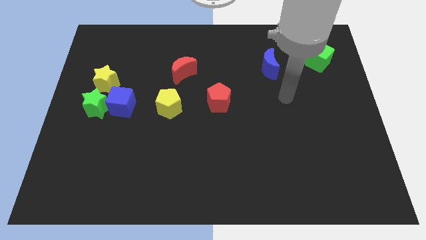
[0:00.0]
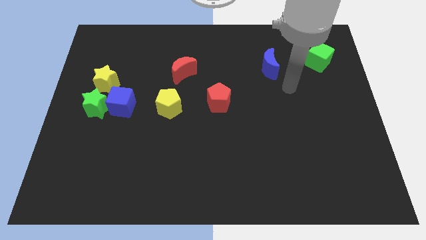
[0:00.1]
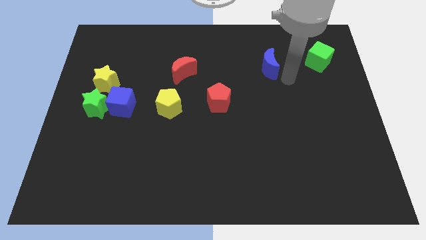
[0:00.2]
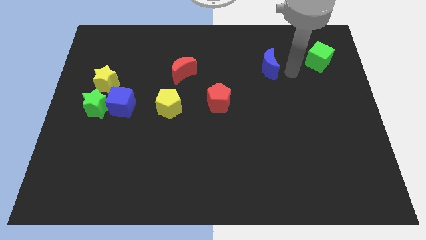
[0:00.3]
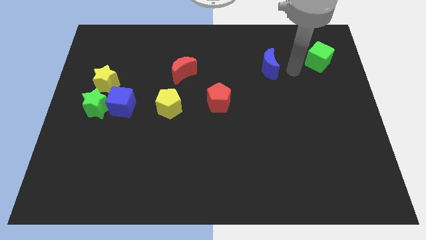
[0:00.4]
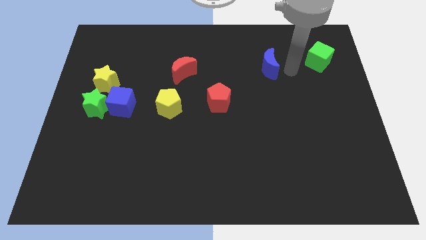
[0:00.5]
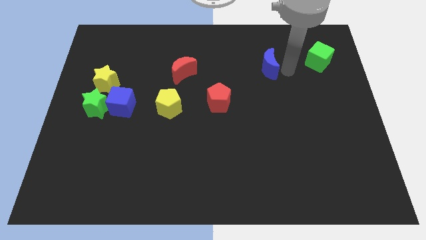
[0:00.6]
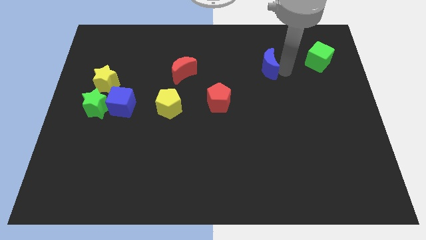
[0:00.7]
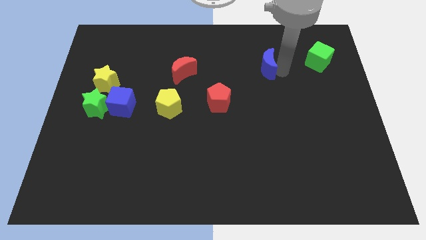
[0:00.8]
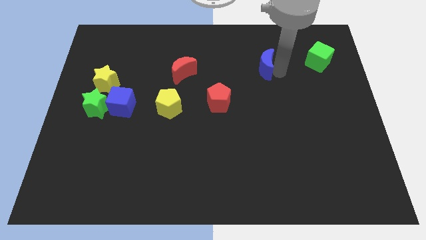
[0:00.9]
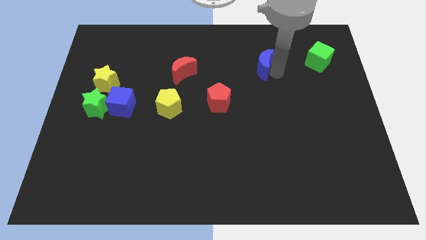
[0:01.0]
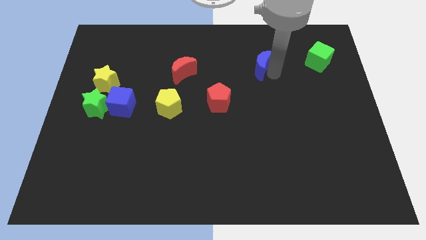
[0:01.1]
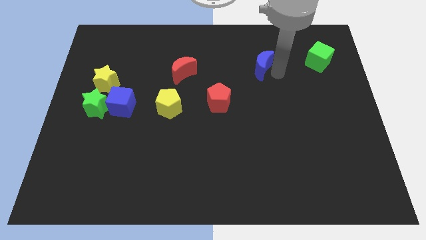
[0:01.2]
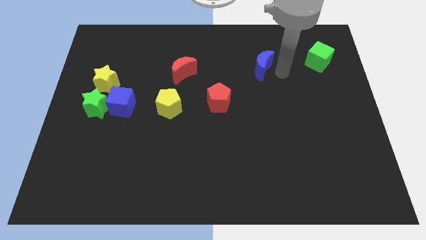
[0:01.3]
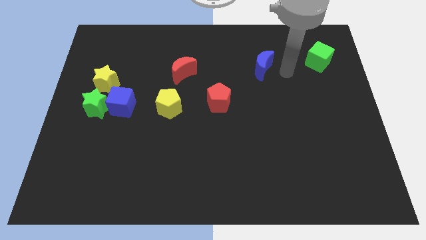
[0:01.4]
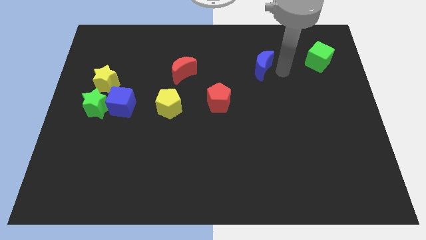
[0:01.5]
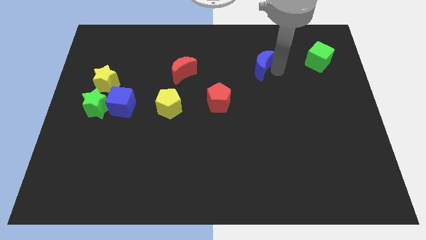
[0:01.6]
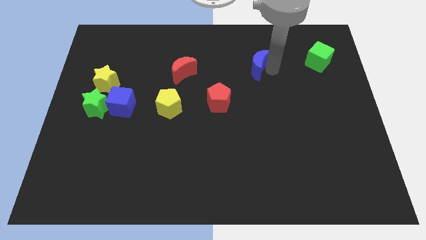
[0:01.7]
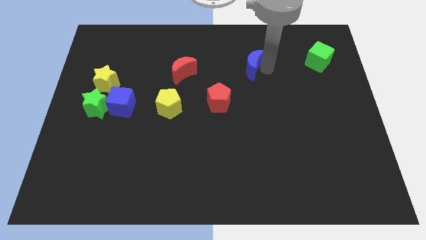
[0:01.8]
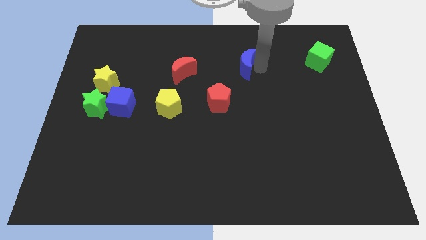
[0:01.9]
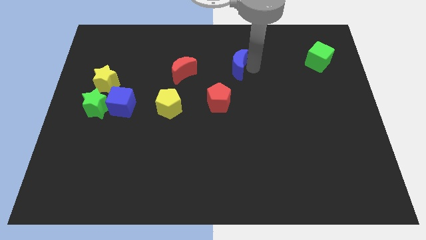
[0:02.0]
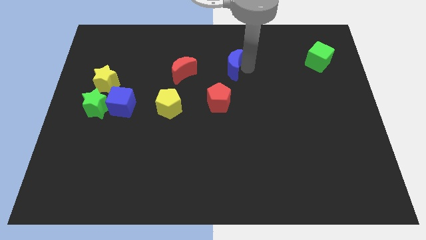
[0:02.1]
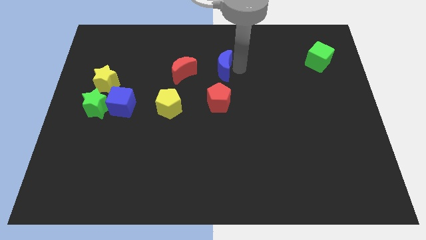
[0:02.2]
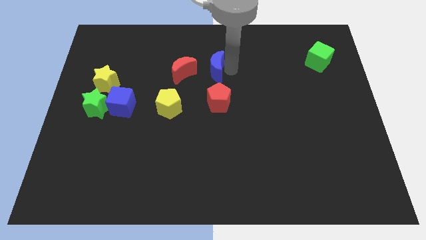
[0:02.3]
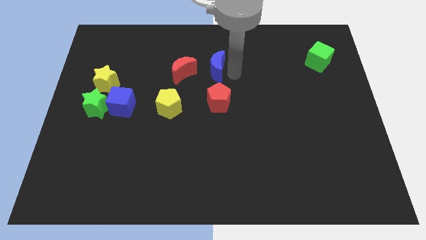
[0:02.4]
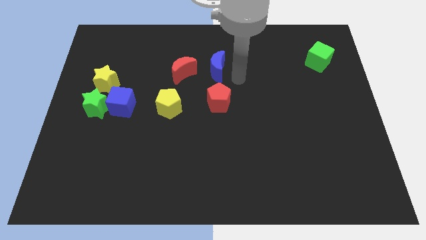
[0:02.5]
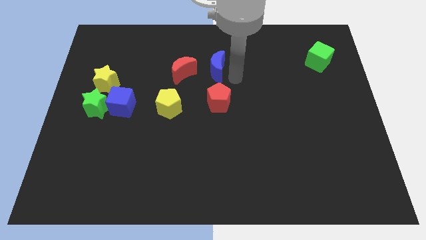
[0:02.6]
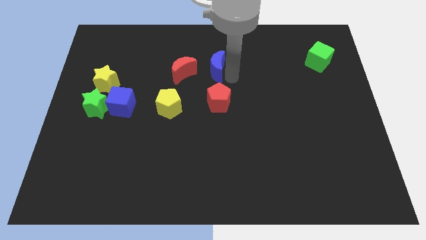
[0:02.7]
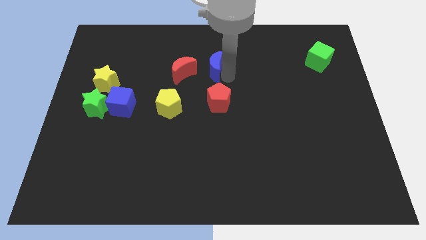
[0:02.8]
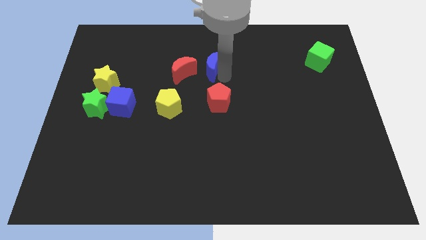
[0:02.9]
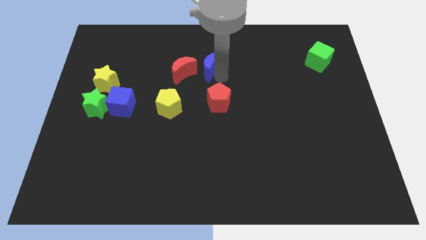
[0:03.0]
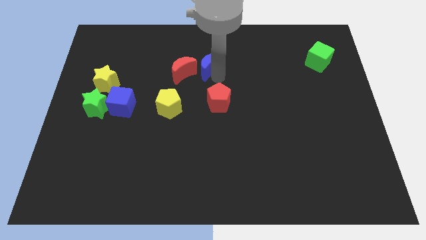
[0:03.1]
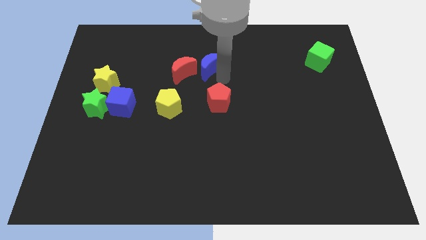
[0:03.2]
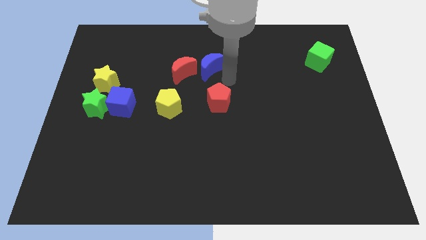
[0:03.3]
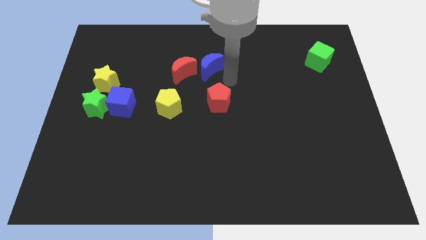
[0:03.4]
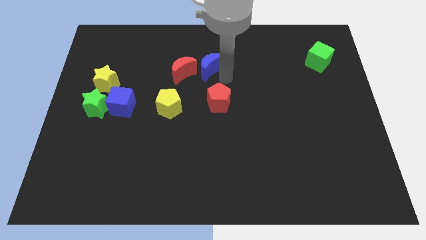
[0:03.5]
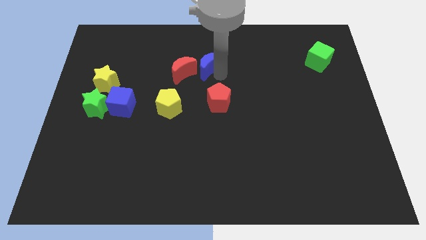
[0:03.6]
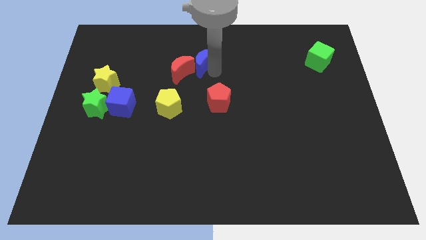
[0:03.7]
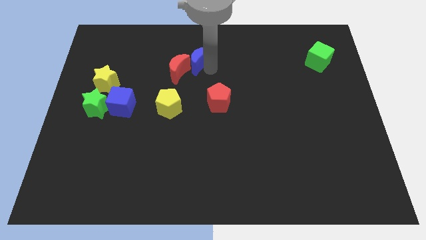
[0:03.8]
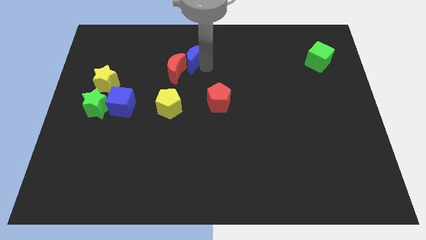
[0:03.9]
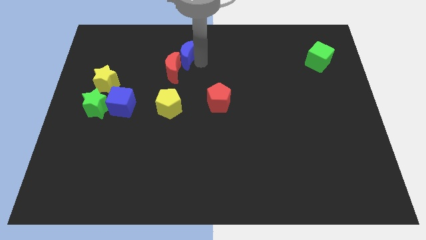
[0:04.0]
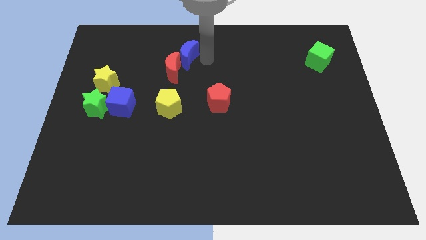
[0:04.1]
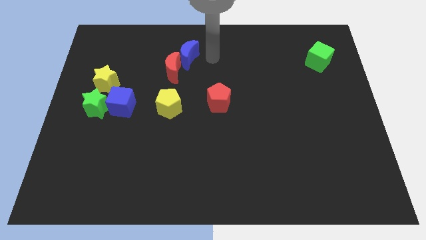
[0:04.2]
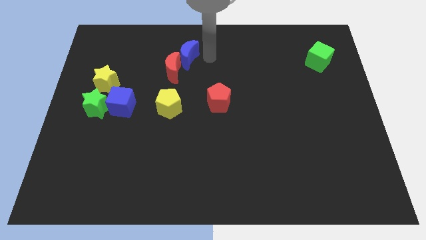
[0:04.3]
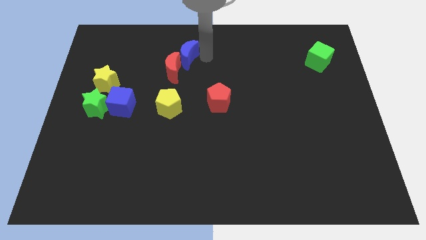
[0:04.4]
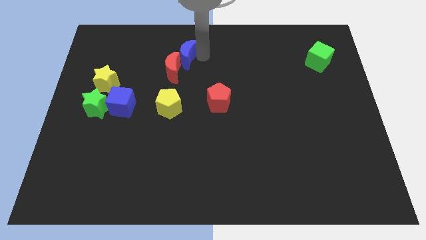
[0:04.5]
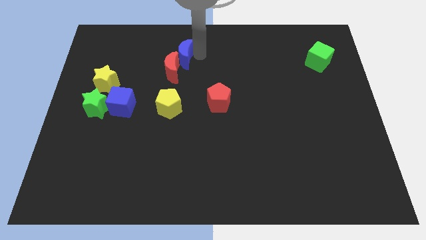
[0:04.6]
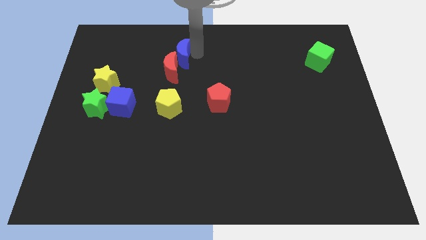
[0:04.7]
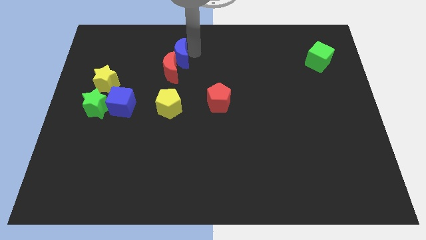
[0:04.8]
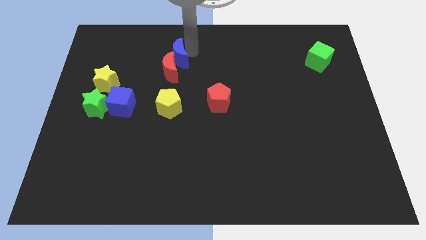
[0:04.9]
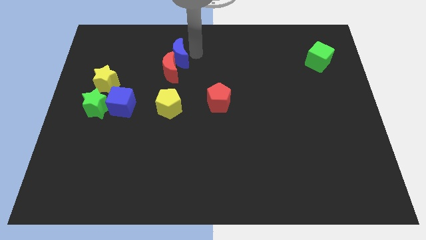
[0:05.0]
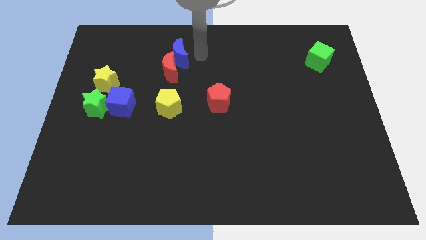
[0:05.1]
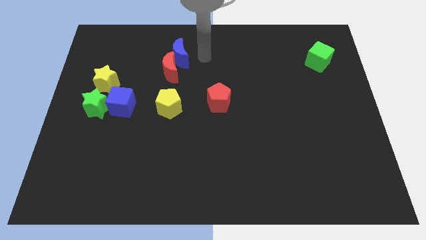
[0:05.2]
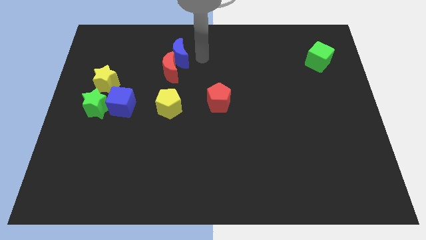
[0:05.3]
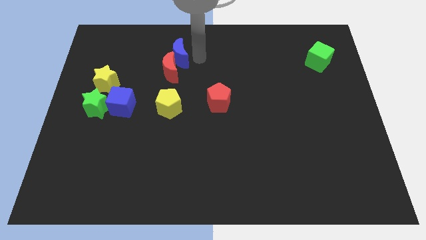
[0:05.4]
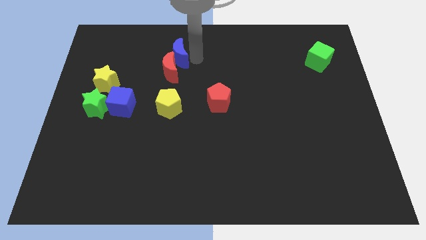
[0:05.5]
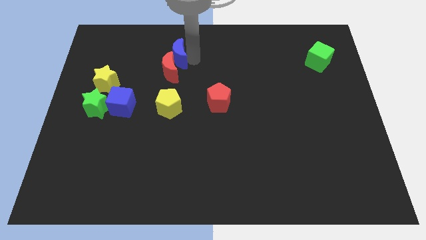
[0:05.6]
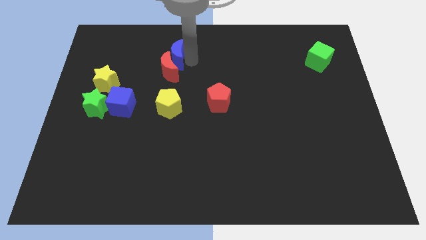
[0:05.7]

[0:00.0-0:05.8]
push the blue moon diagonally up and to the left of the red moon

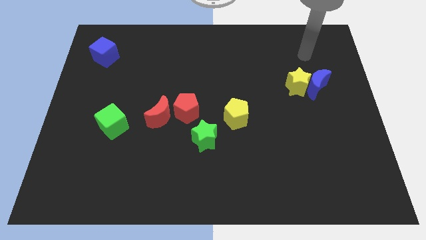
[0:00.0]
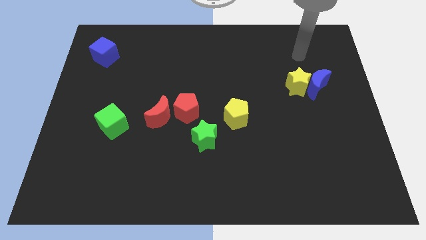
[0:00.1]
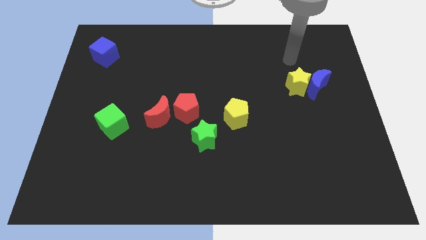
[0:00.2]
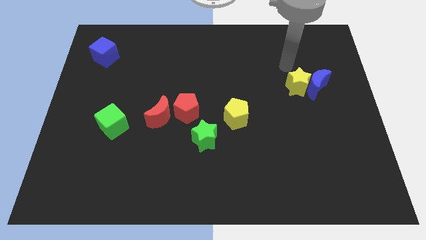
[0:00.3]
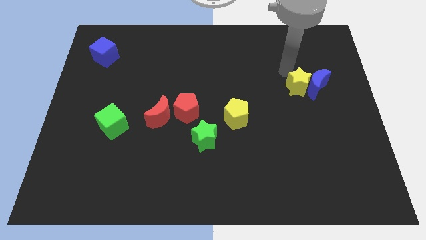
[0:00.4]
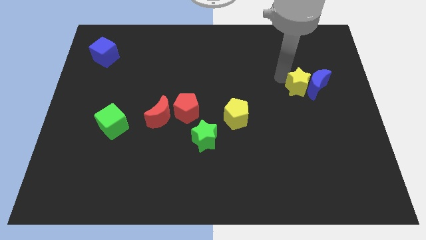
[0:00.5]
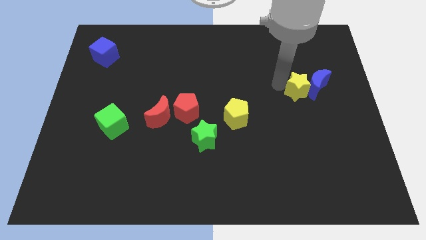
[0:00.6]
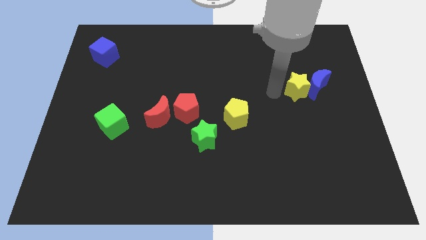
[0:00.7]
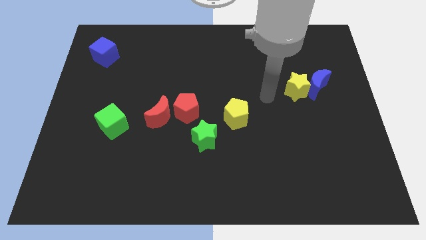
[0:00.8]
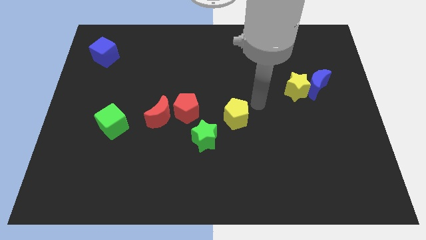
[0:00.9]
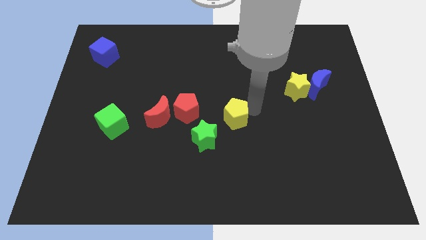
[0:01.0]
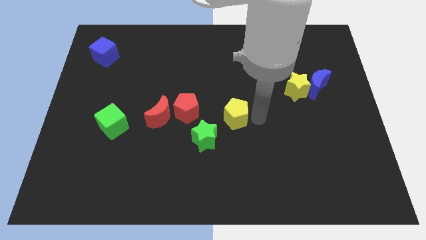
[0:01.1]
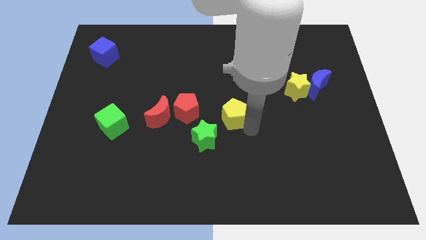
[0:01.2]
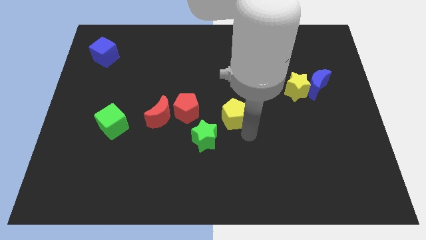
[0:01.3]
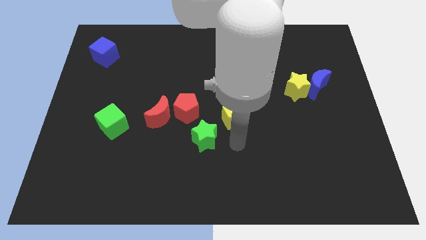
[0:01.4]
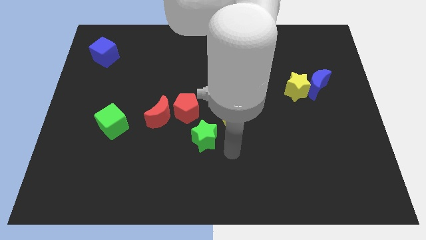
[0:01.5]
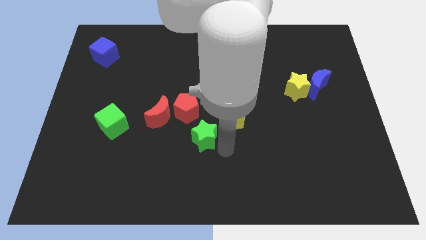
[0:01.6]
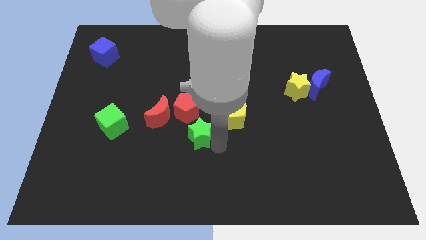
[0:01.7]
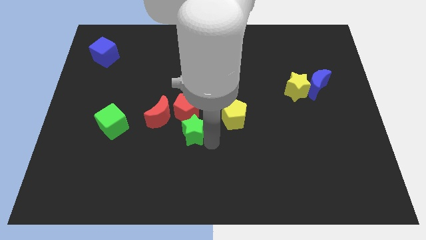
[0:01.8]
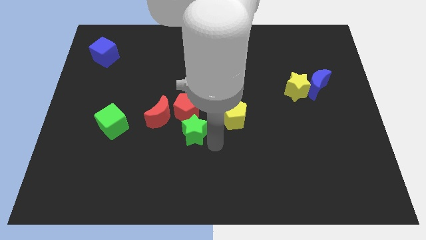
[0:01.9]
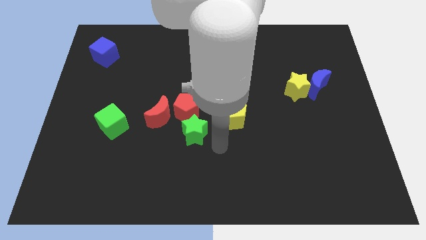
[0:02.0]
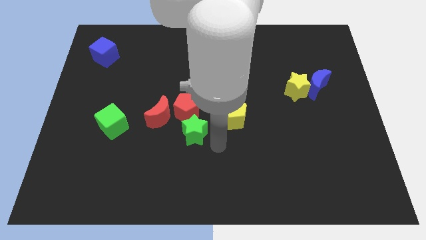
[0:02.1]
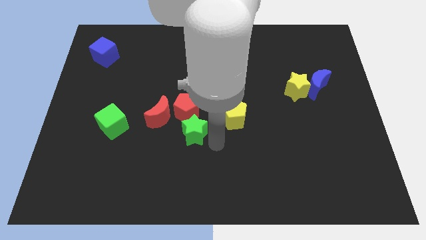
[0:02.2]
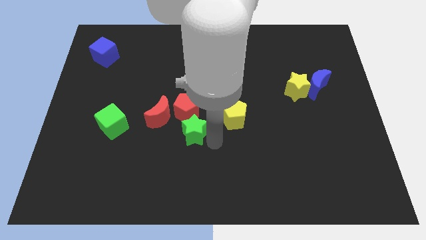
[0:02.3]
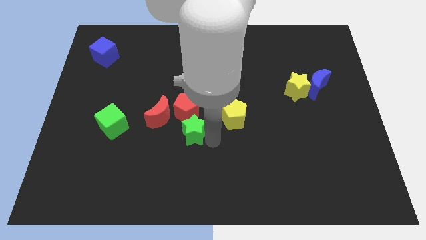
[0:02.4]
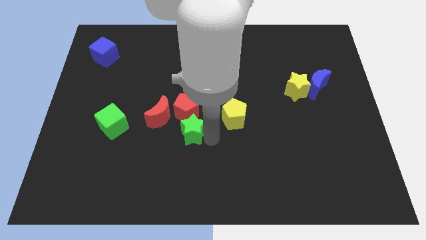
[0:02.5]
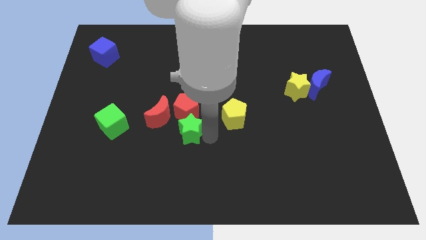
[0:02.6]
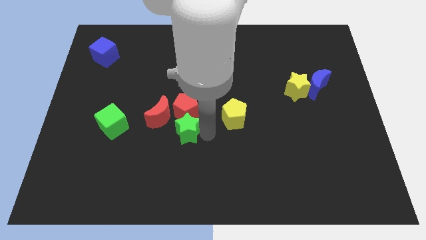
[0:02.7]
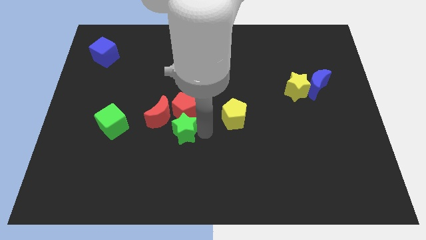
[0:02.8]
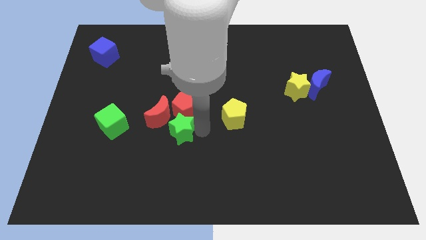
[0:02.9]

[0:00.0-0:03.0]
move the green star to the right side of the green cube
